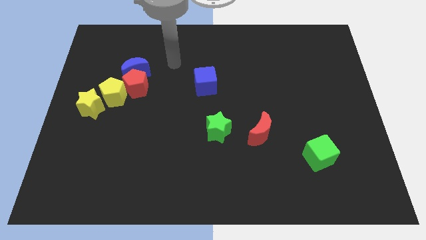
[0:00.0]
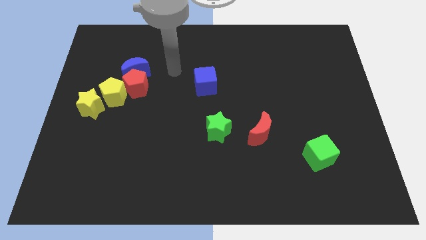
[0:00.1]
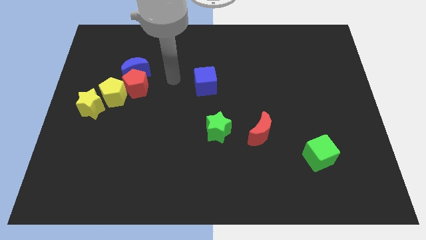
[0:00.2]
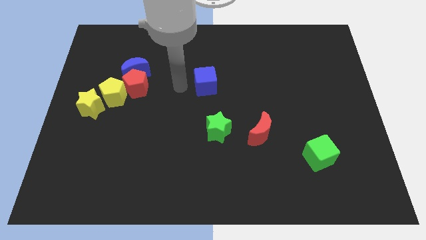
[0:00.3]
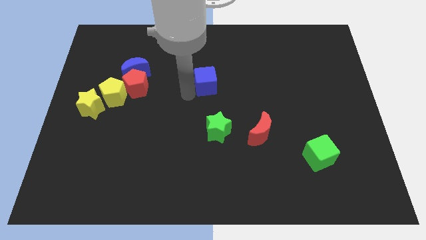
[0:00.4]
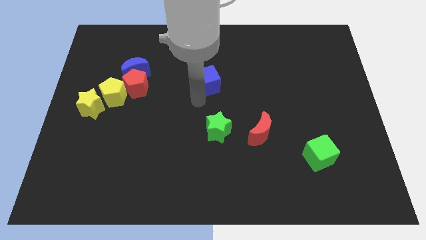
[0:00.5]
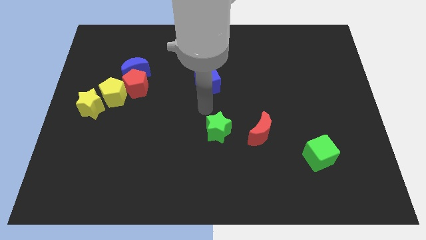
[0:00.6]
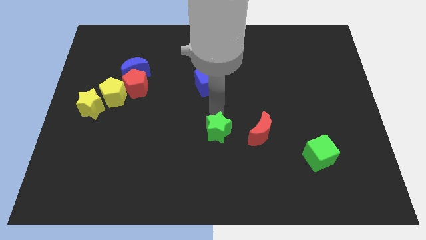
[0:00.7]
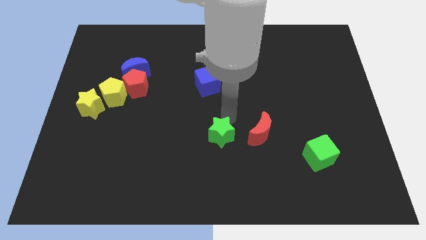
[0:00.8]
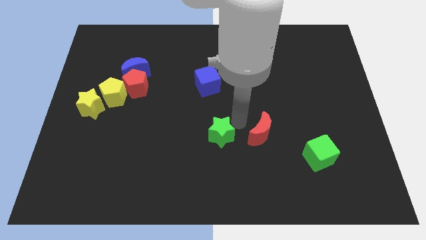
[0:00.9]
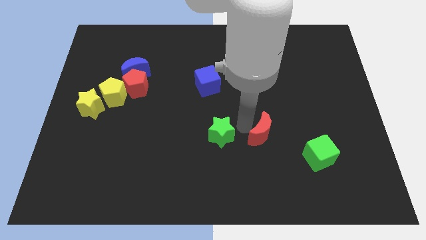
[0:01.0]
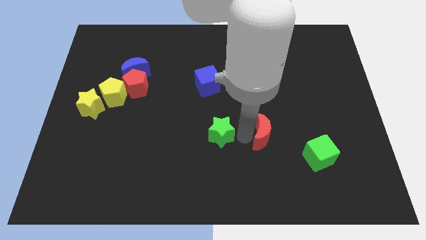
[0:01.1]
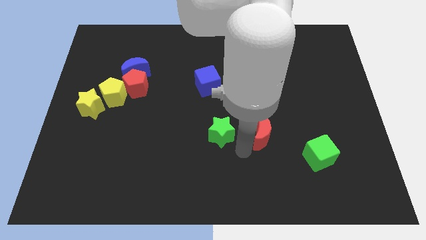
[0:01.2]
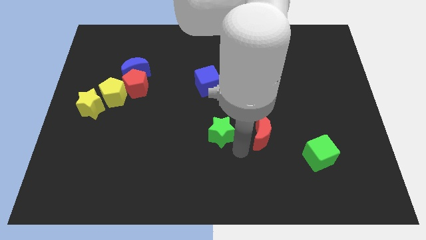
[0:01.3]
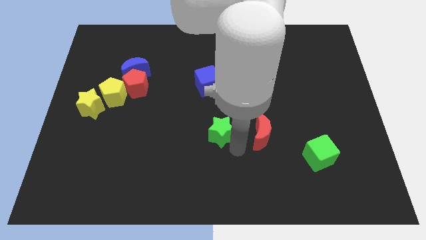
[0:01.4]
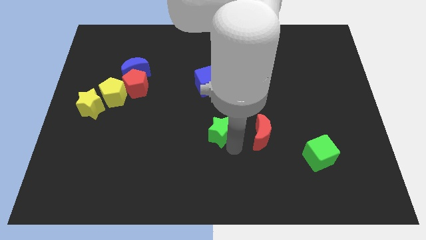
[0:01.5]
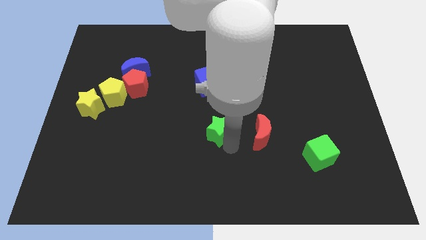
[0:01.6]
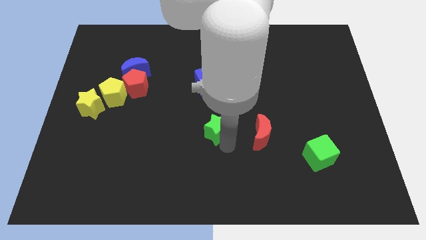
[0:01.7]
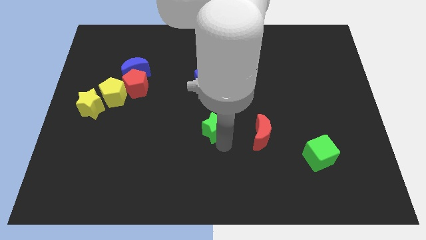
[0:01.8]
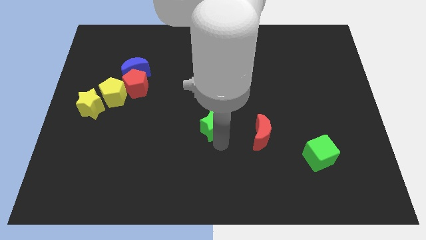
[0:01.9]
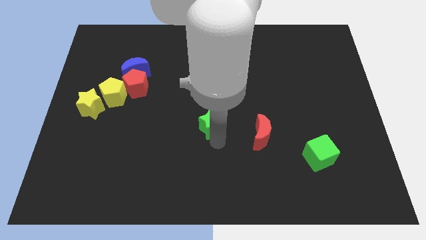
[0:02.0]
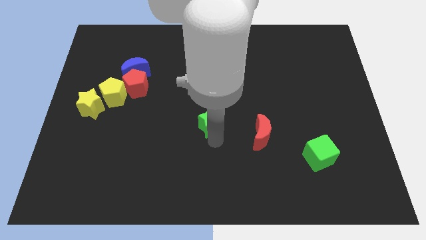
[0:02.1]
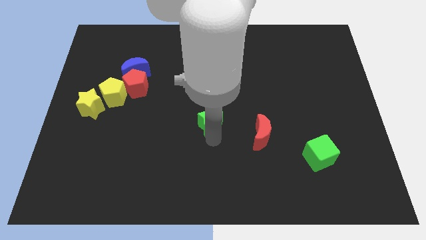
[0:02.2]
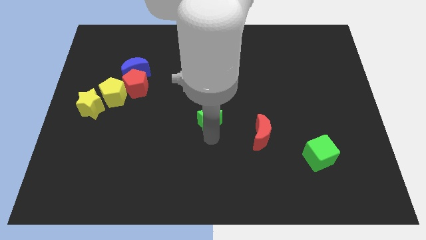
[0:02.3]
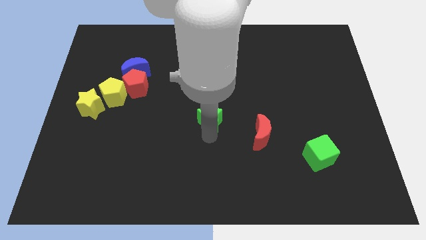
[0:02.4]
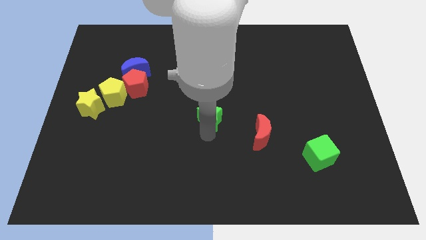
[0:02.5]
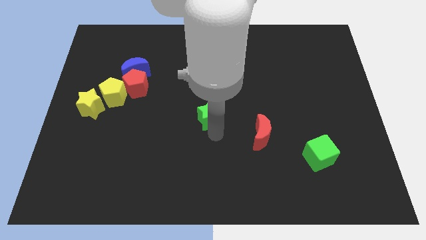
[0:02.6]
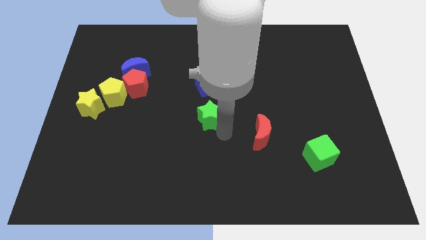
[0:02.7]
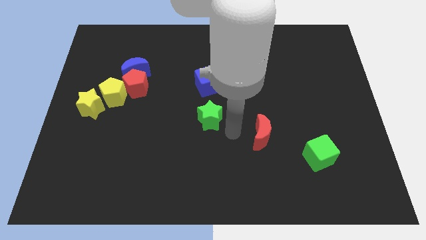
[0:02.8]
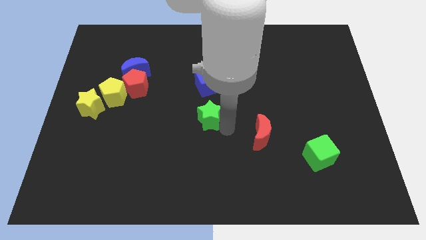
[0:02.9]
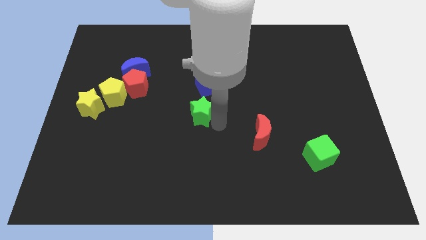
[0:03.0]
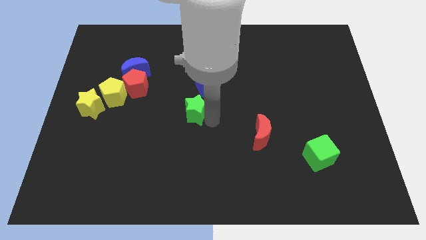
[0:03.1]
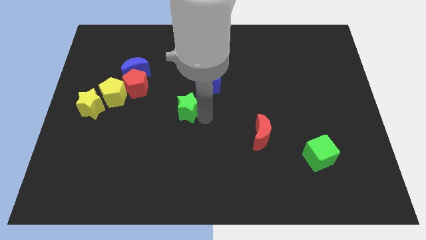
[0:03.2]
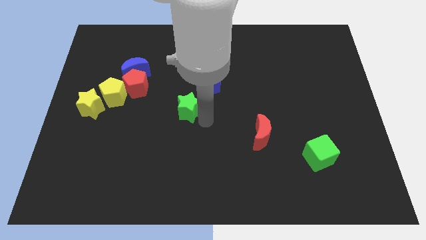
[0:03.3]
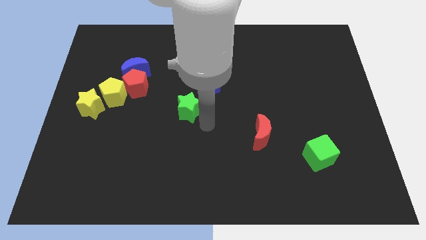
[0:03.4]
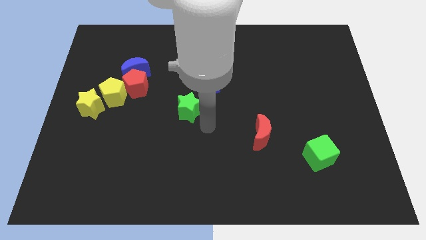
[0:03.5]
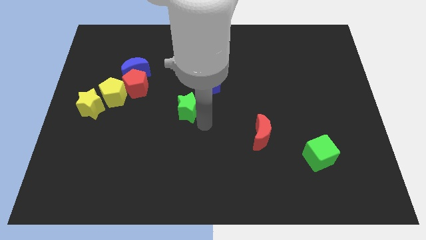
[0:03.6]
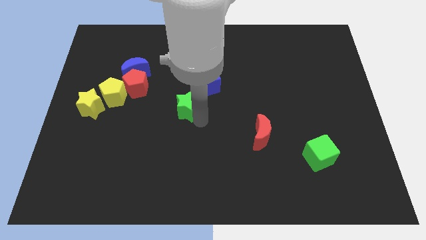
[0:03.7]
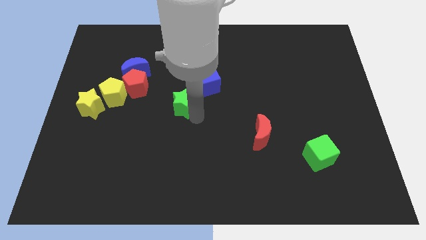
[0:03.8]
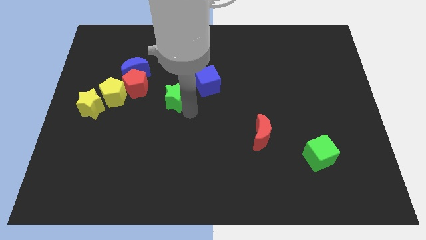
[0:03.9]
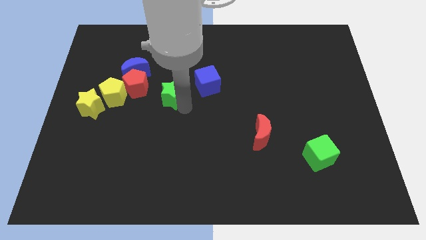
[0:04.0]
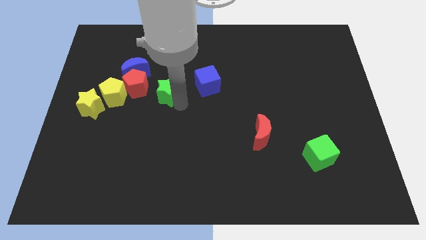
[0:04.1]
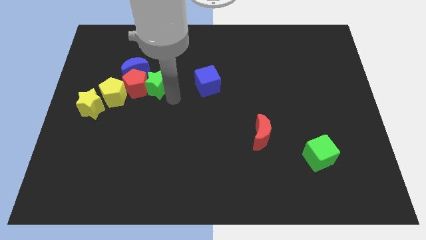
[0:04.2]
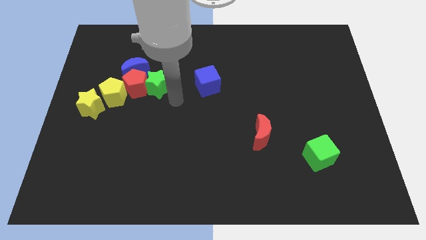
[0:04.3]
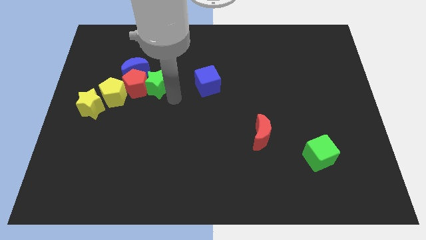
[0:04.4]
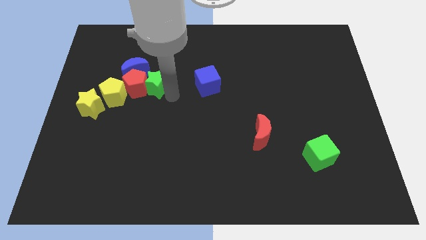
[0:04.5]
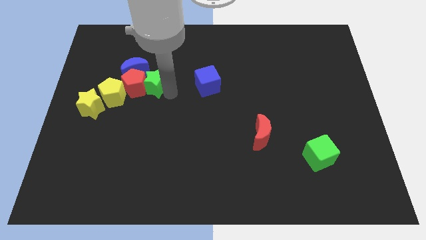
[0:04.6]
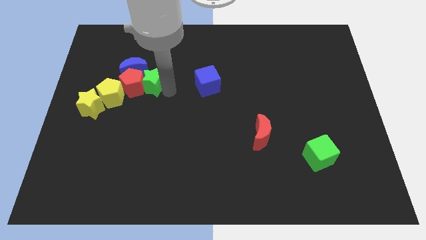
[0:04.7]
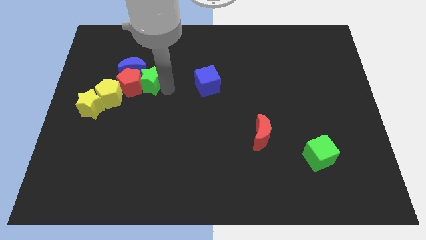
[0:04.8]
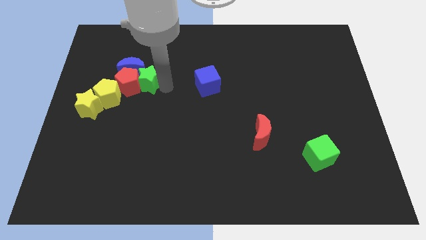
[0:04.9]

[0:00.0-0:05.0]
move the green star towards the blue moon

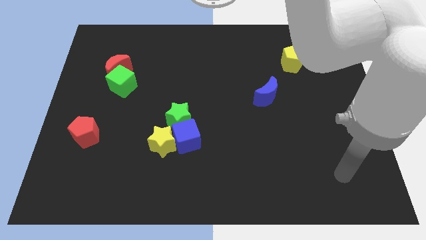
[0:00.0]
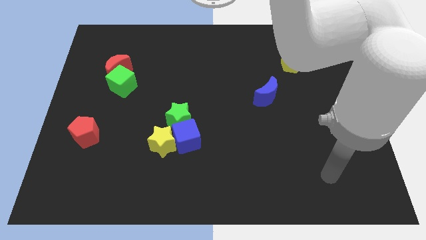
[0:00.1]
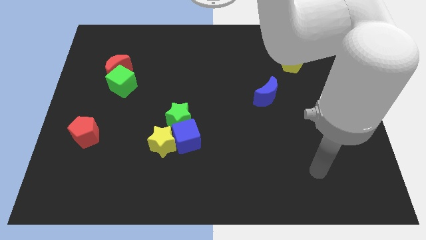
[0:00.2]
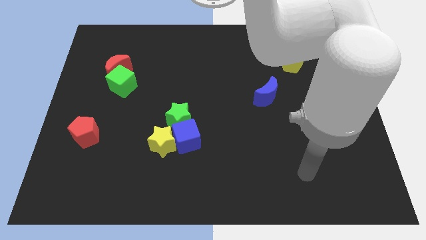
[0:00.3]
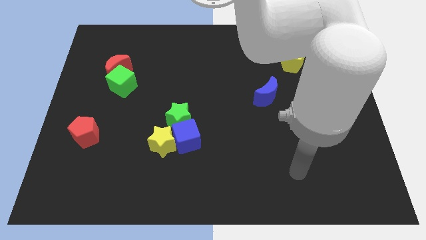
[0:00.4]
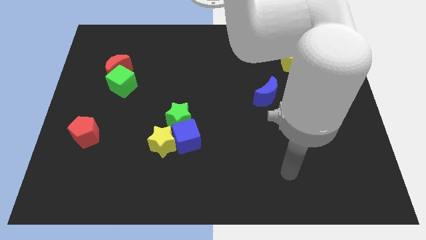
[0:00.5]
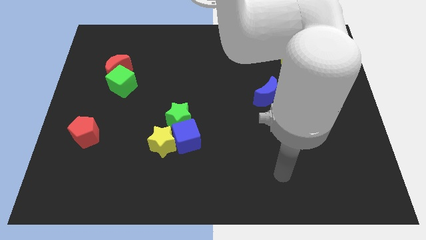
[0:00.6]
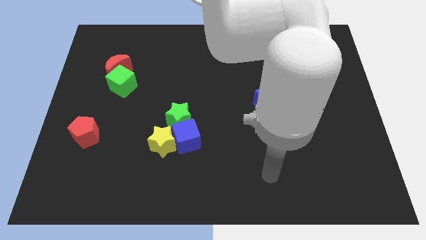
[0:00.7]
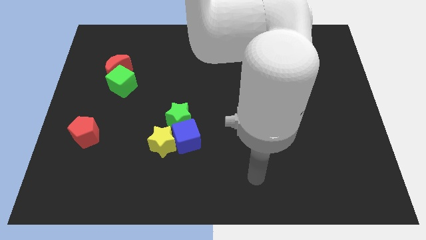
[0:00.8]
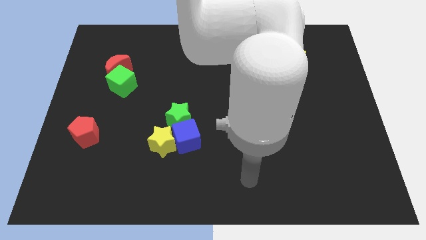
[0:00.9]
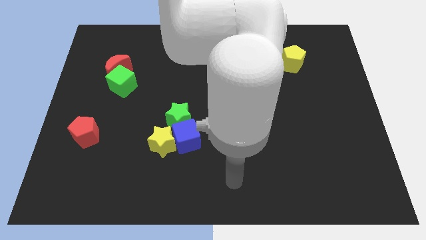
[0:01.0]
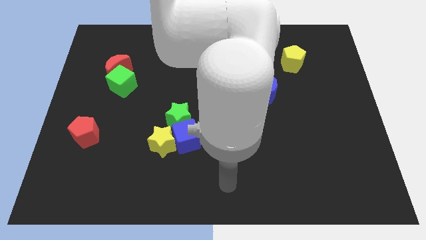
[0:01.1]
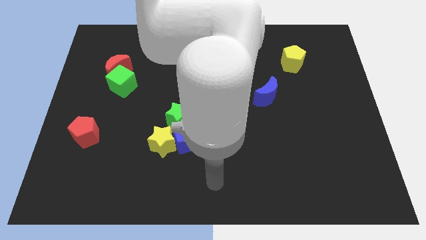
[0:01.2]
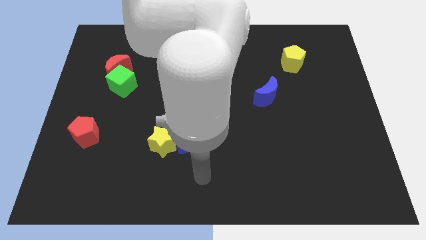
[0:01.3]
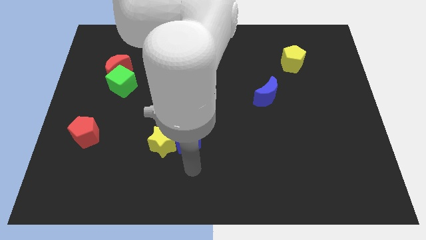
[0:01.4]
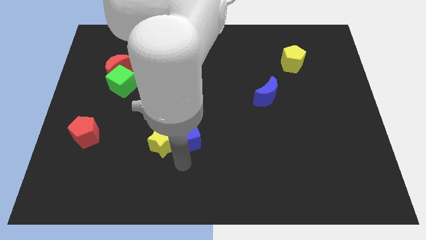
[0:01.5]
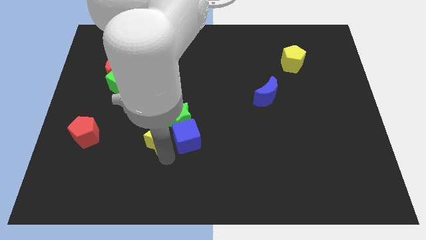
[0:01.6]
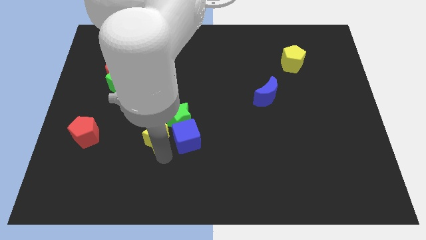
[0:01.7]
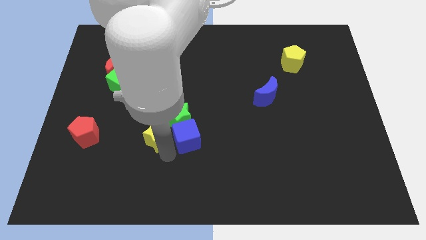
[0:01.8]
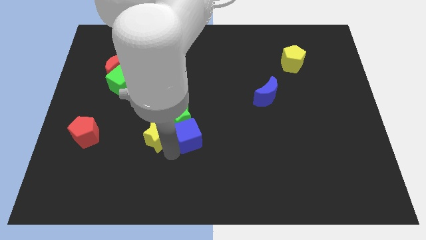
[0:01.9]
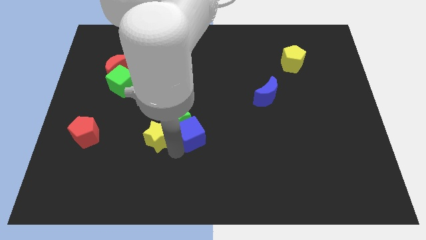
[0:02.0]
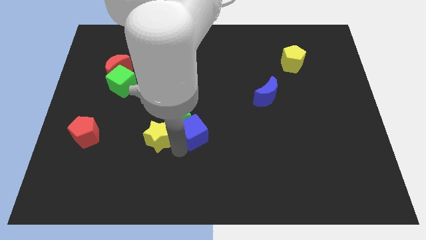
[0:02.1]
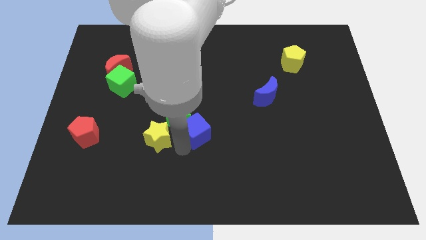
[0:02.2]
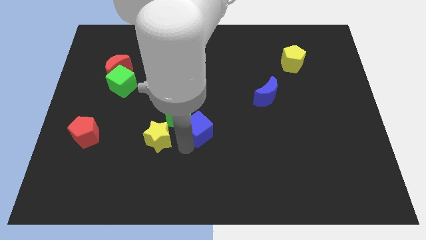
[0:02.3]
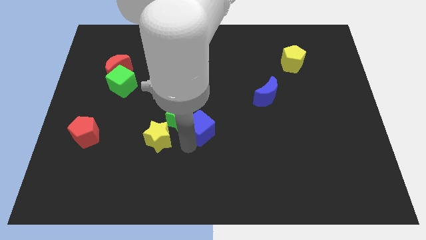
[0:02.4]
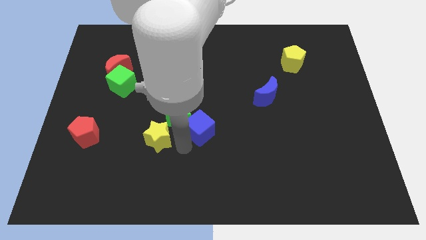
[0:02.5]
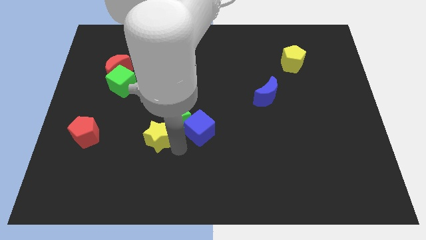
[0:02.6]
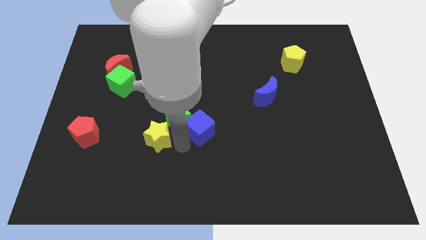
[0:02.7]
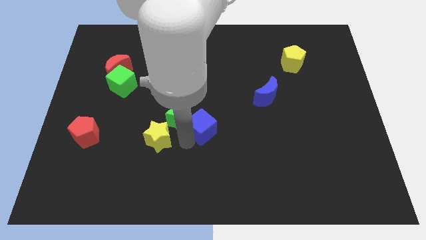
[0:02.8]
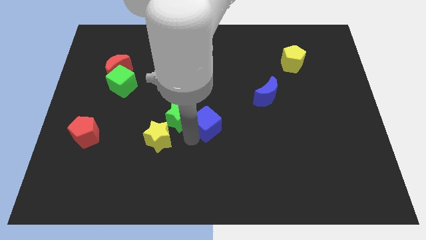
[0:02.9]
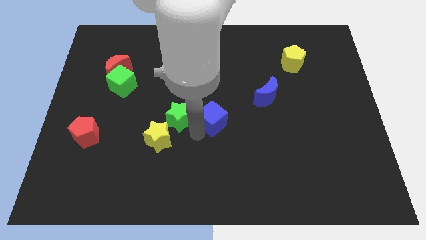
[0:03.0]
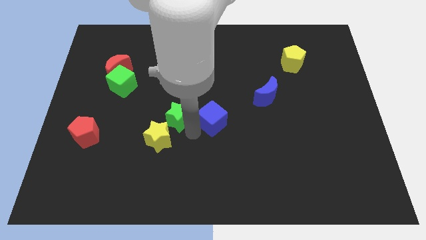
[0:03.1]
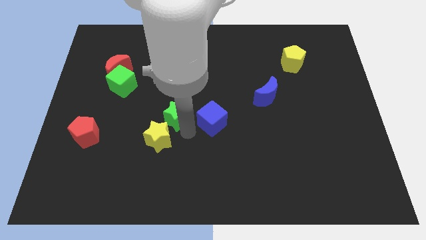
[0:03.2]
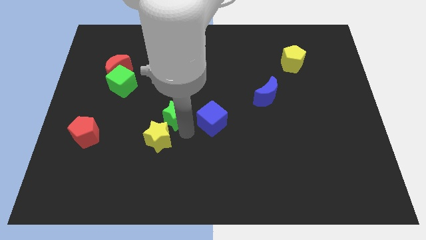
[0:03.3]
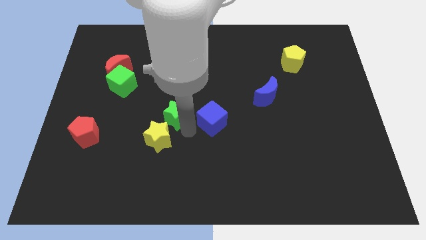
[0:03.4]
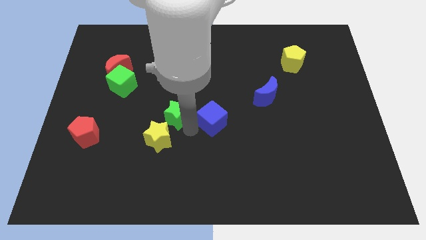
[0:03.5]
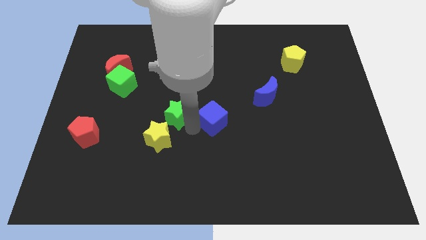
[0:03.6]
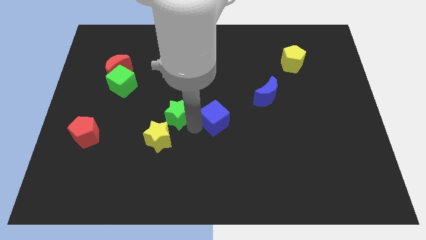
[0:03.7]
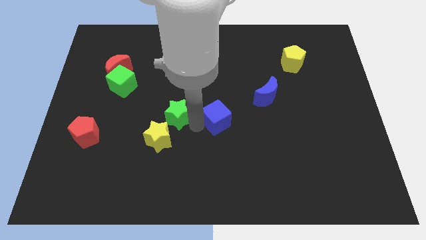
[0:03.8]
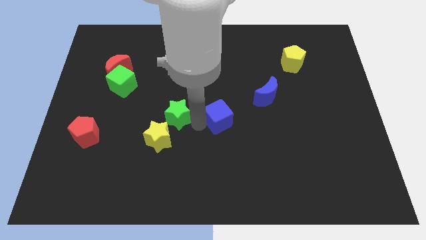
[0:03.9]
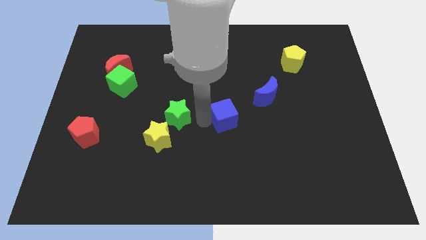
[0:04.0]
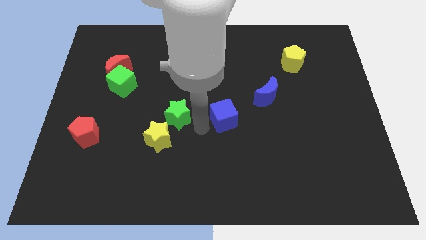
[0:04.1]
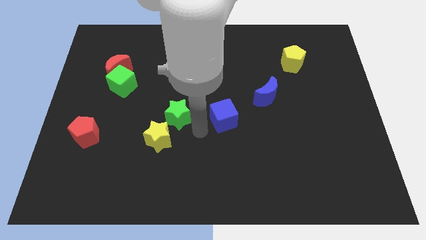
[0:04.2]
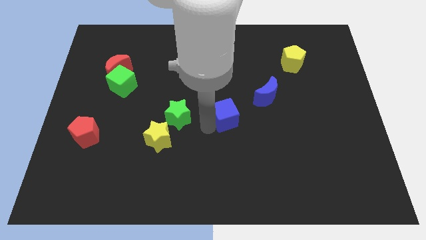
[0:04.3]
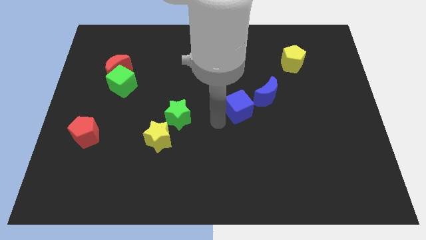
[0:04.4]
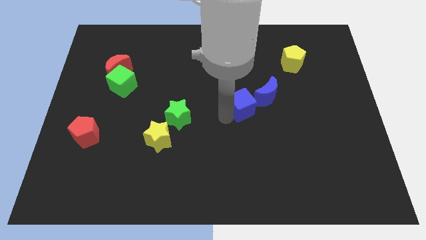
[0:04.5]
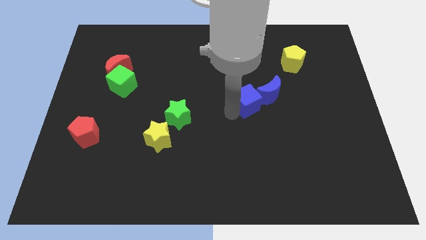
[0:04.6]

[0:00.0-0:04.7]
slide the blue cube close to the blue moon
